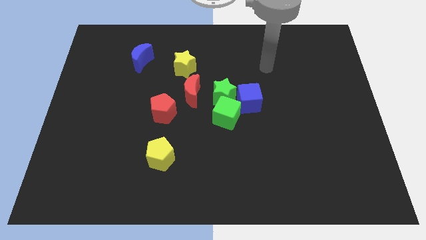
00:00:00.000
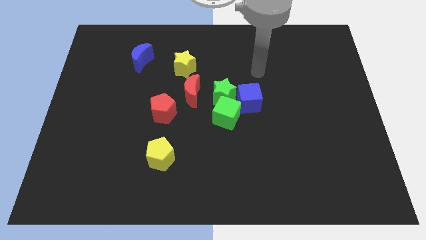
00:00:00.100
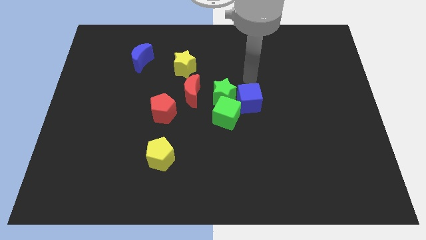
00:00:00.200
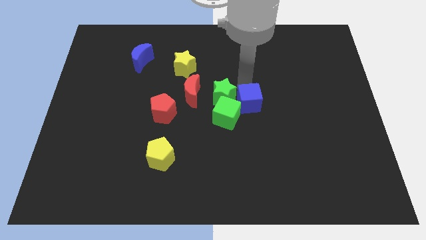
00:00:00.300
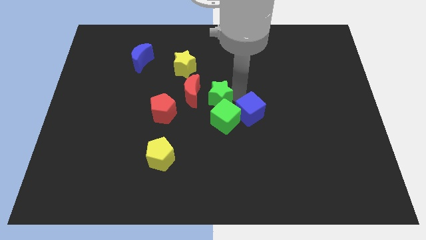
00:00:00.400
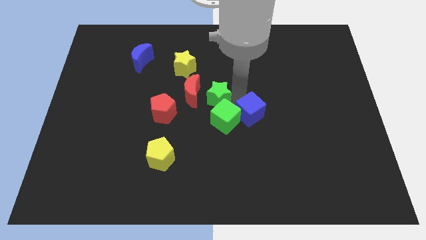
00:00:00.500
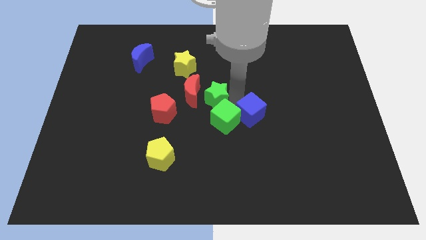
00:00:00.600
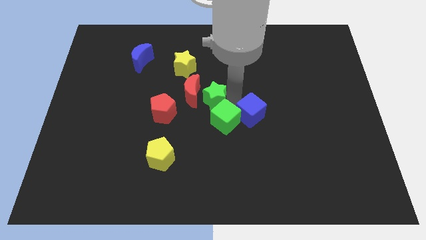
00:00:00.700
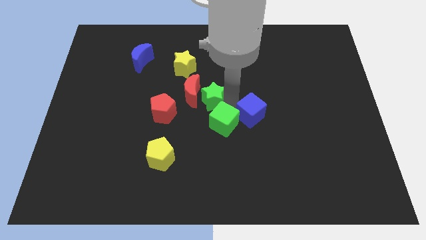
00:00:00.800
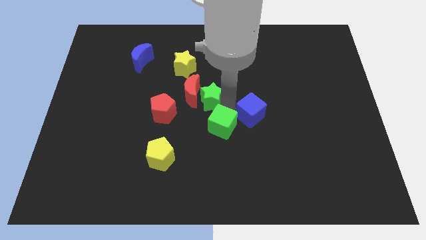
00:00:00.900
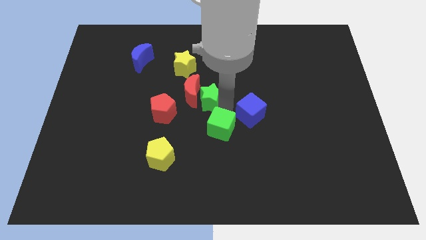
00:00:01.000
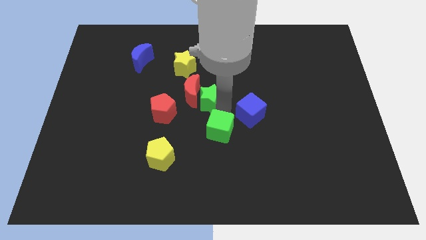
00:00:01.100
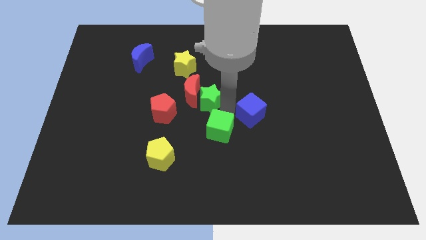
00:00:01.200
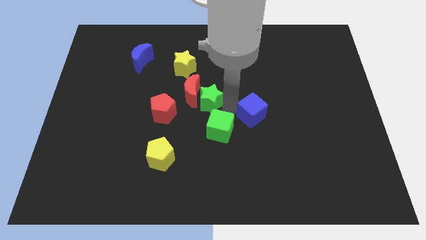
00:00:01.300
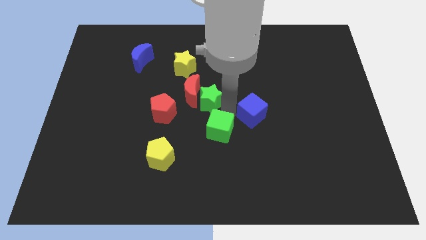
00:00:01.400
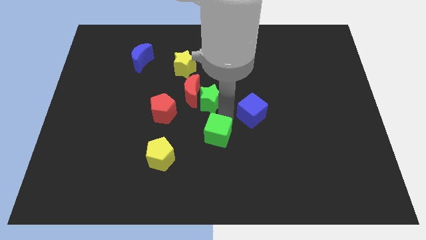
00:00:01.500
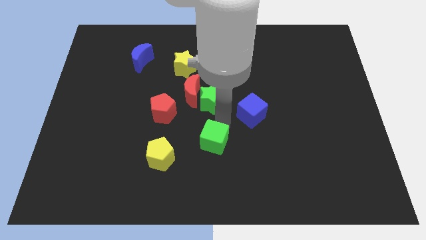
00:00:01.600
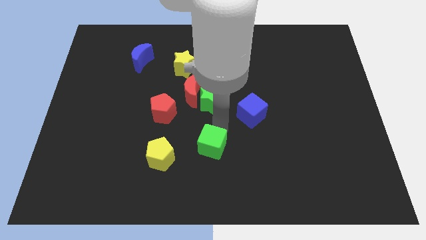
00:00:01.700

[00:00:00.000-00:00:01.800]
move the green cube away from the green star and blue cube

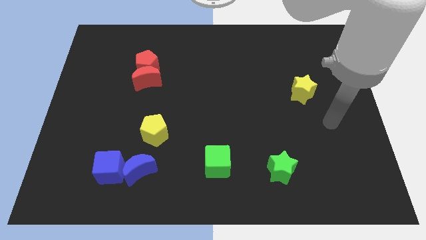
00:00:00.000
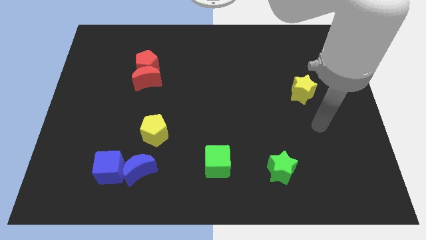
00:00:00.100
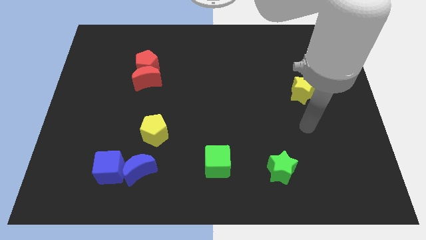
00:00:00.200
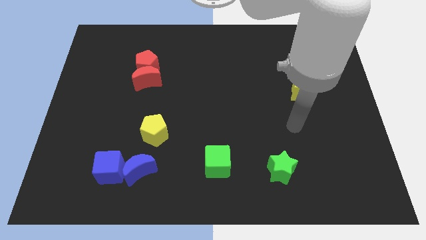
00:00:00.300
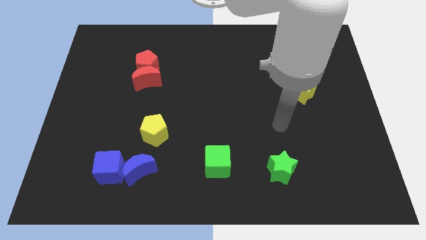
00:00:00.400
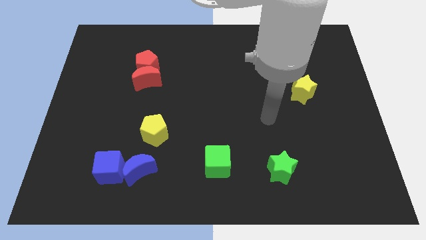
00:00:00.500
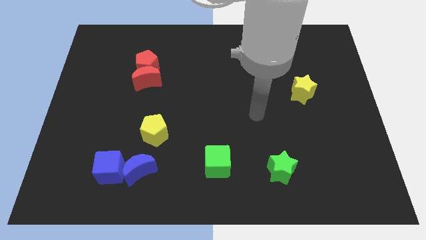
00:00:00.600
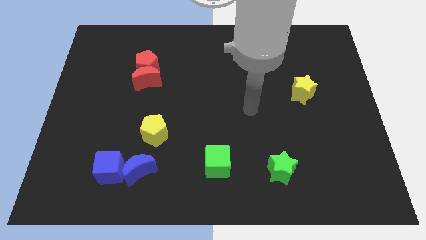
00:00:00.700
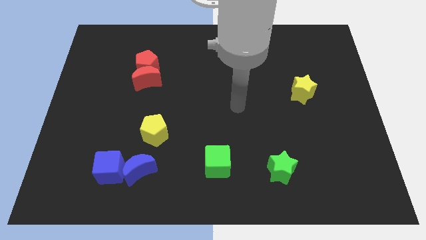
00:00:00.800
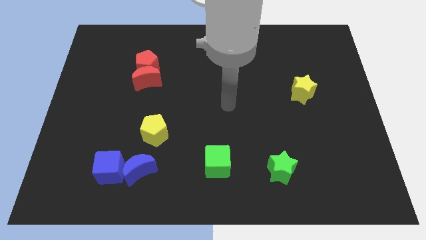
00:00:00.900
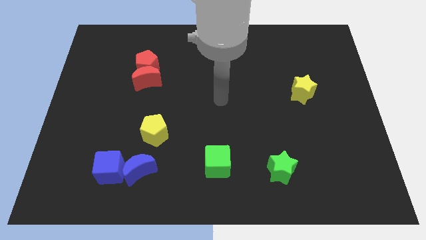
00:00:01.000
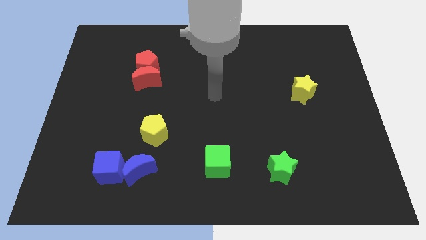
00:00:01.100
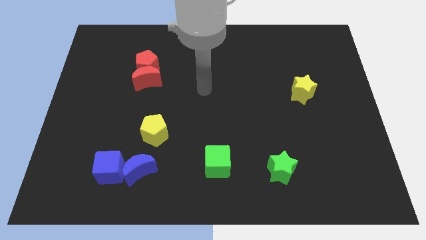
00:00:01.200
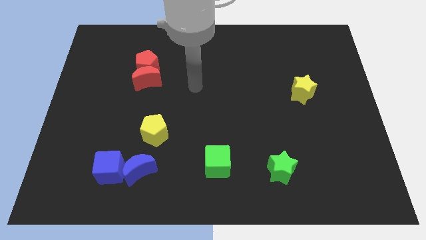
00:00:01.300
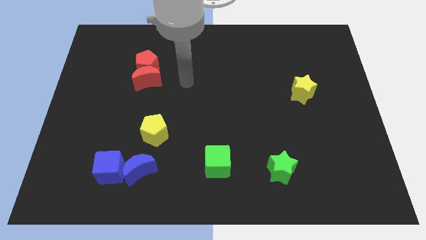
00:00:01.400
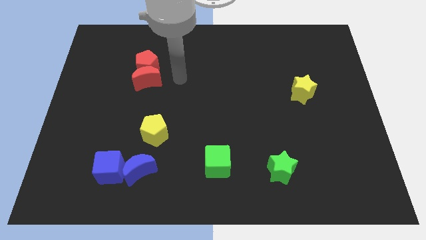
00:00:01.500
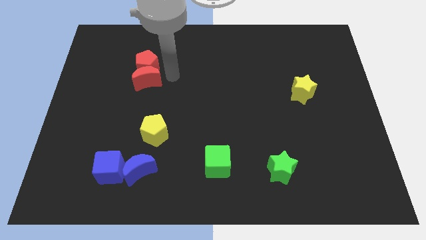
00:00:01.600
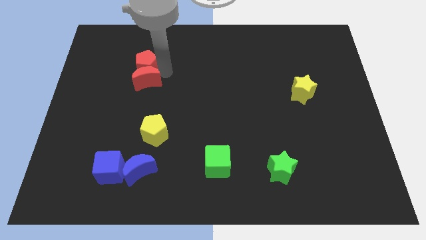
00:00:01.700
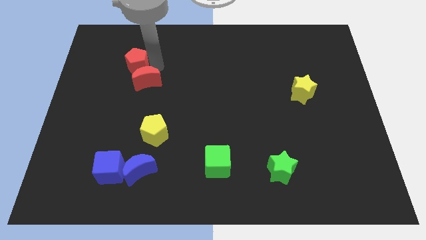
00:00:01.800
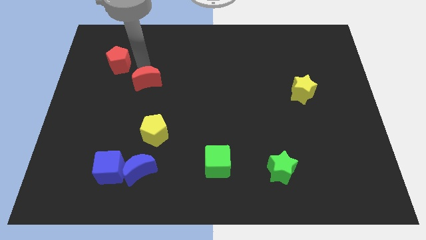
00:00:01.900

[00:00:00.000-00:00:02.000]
pull the red moon apart from the red pentagon

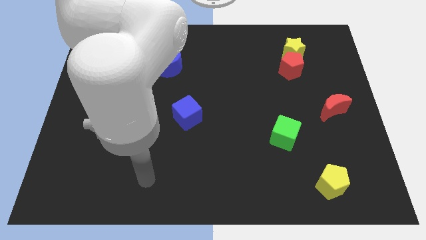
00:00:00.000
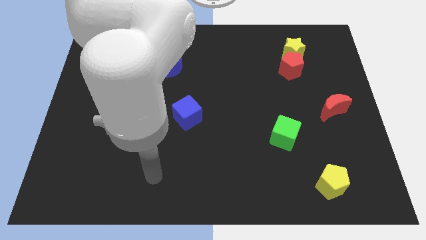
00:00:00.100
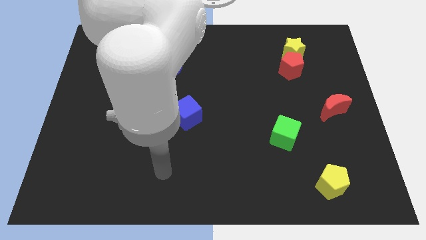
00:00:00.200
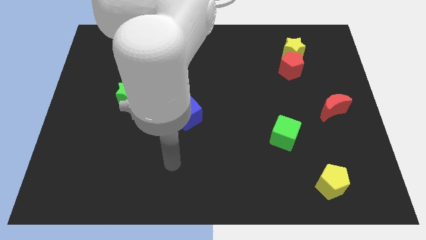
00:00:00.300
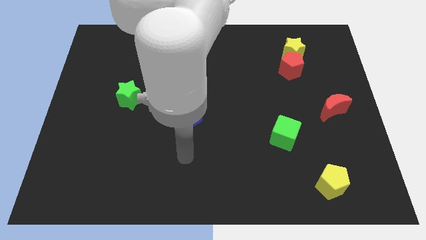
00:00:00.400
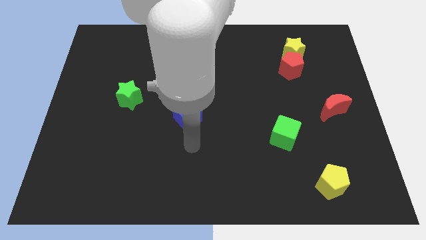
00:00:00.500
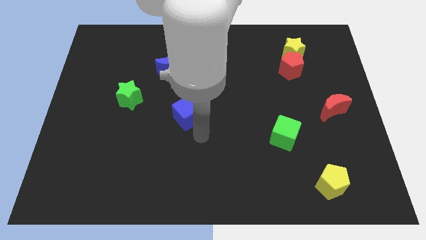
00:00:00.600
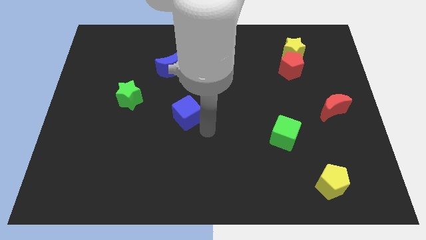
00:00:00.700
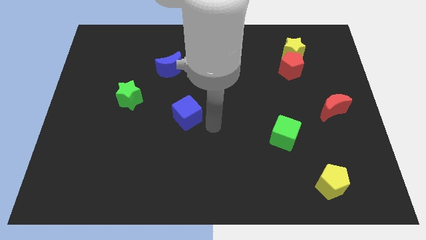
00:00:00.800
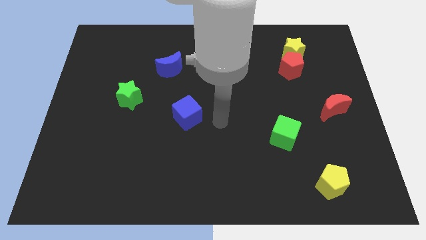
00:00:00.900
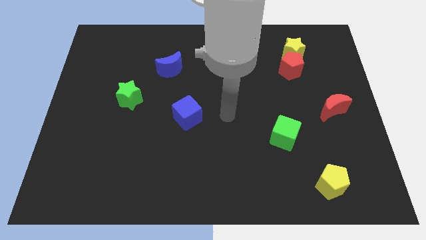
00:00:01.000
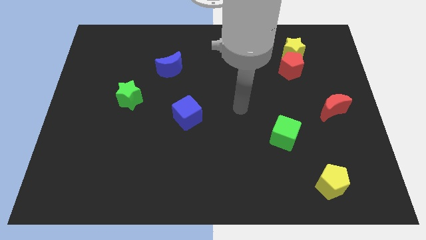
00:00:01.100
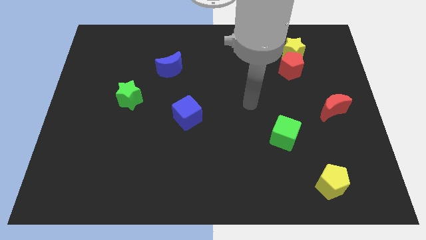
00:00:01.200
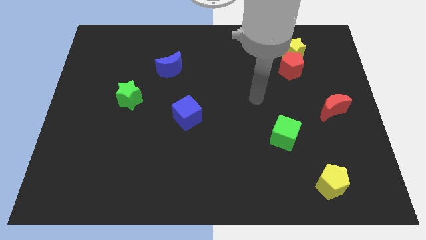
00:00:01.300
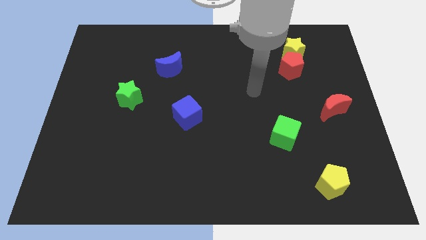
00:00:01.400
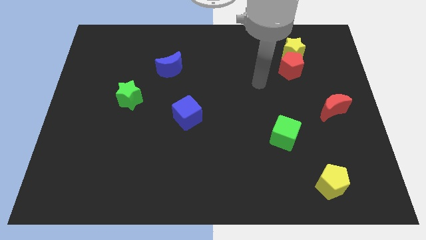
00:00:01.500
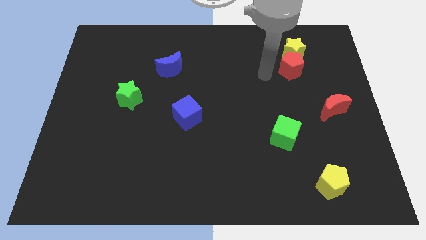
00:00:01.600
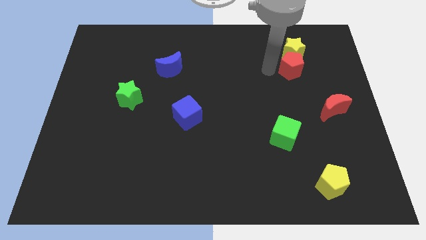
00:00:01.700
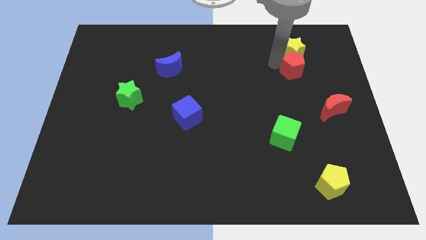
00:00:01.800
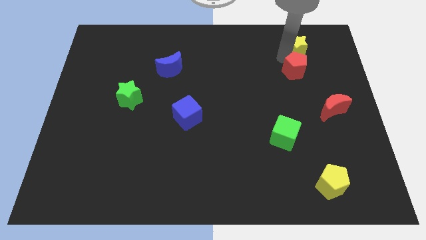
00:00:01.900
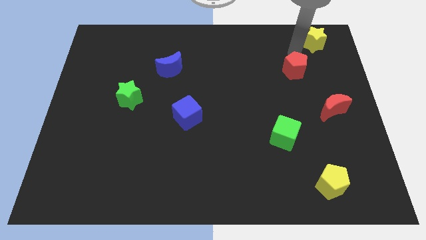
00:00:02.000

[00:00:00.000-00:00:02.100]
pull the red pentagon apart from the yellow star

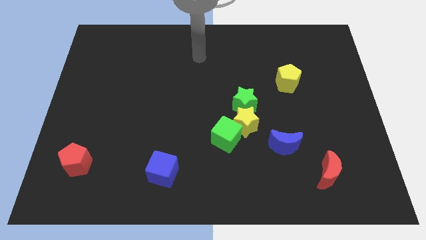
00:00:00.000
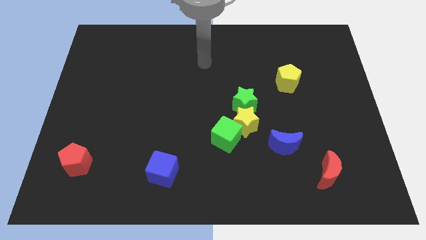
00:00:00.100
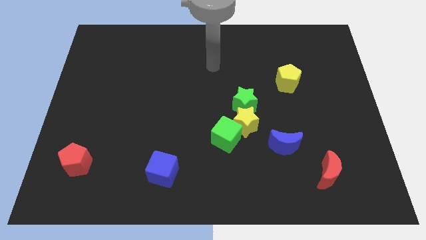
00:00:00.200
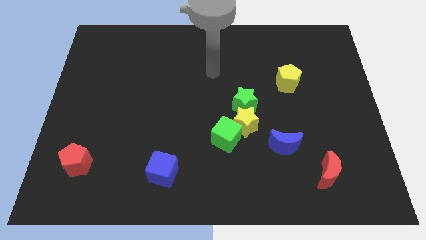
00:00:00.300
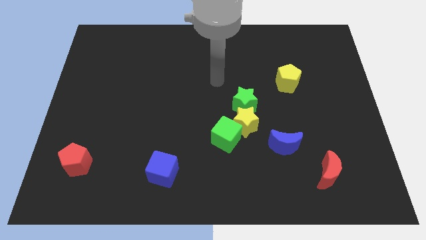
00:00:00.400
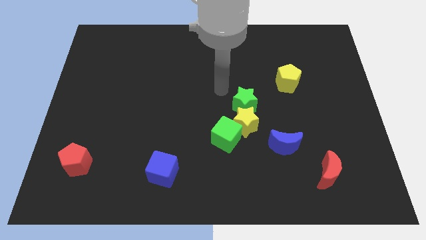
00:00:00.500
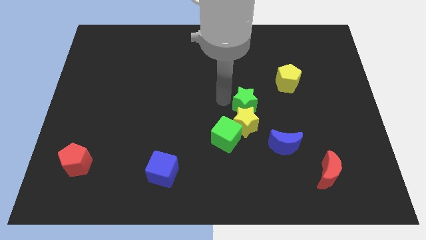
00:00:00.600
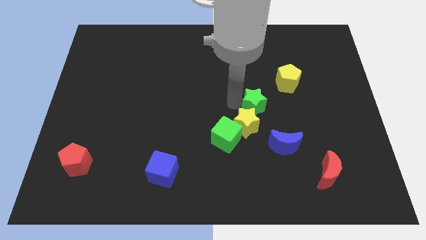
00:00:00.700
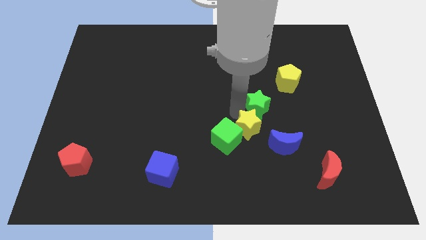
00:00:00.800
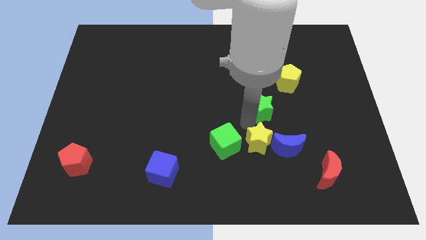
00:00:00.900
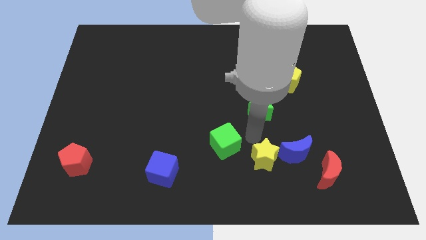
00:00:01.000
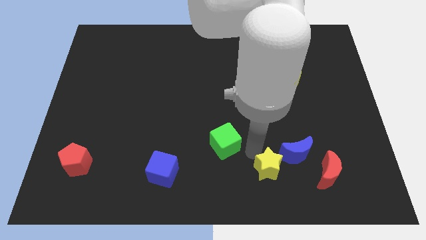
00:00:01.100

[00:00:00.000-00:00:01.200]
pull the green cube apart from the yellow star

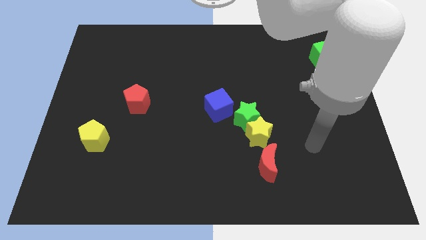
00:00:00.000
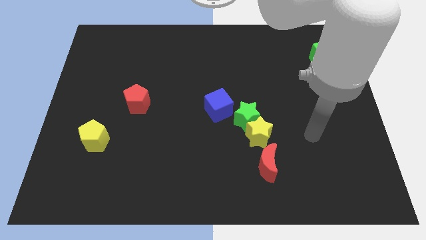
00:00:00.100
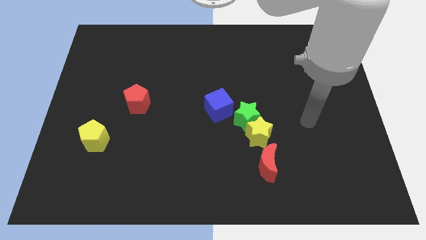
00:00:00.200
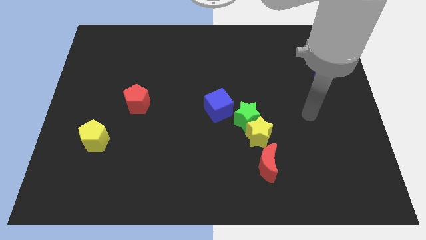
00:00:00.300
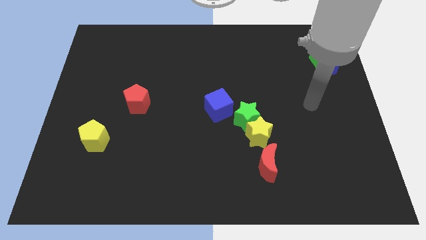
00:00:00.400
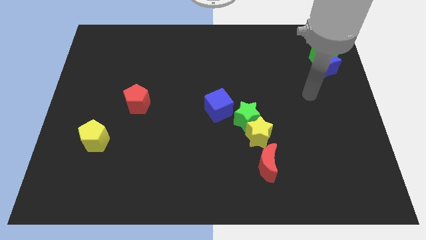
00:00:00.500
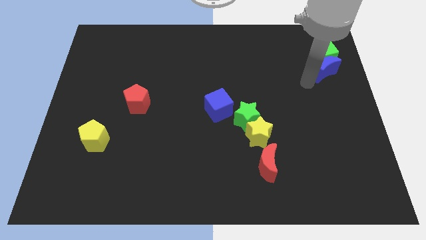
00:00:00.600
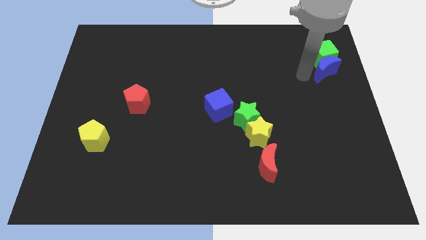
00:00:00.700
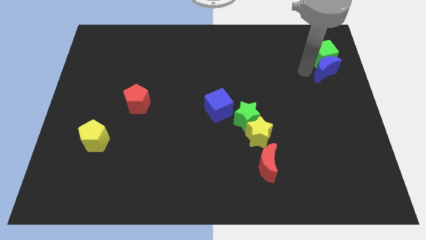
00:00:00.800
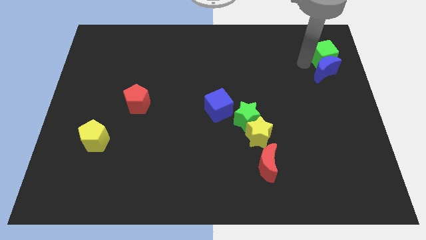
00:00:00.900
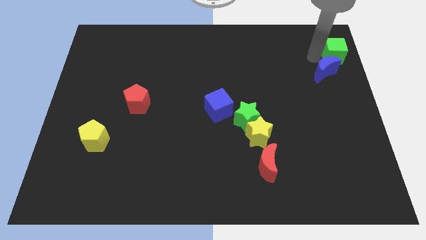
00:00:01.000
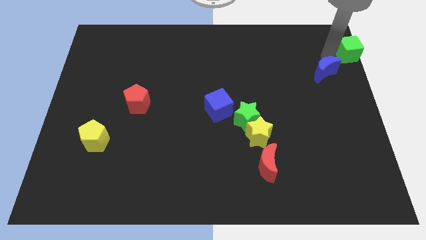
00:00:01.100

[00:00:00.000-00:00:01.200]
pull the blue moon apart from the green cube

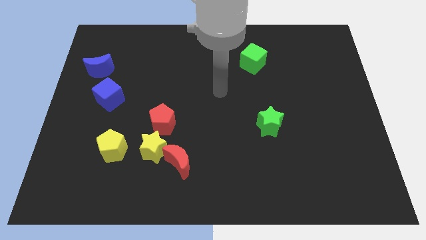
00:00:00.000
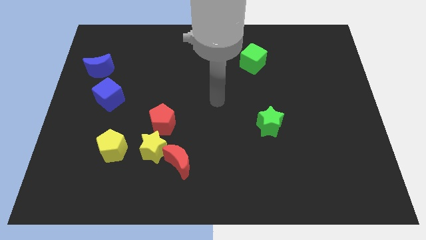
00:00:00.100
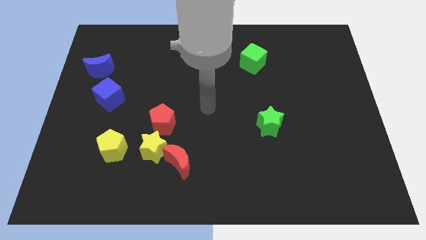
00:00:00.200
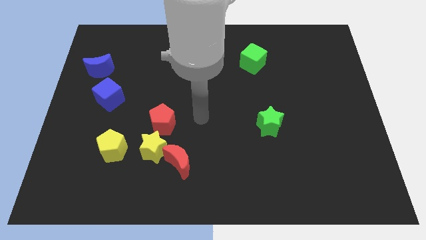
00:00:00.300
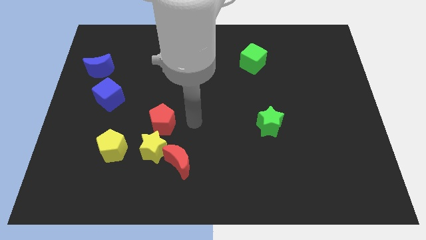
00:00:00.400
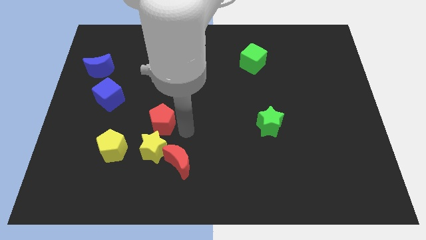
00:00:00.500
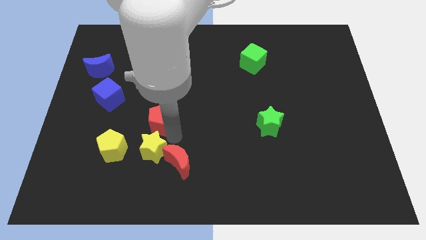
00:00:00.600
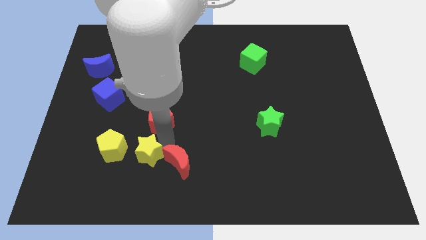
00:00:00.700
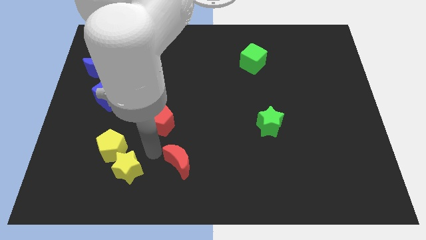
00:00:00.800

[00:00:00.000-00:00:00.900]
pull the red moon apart from the yellow star
